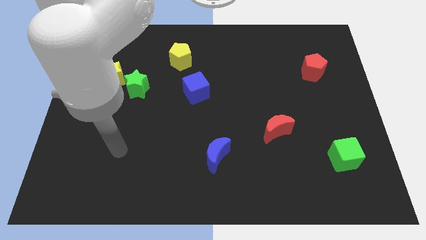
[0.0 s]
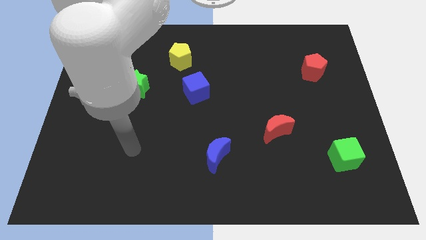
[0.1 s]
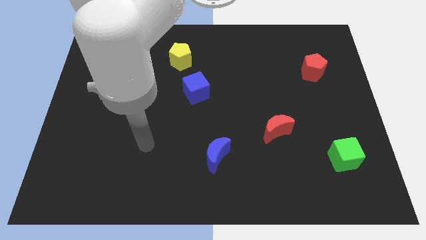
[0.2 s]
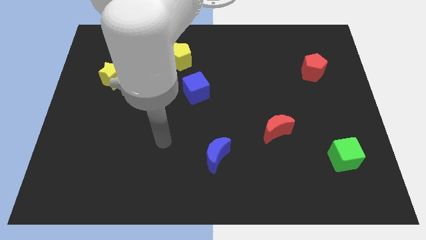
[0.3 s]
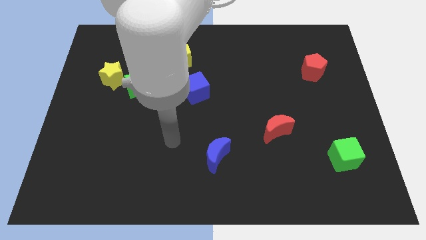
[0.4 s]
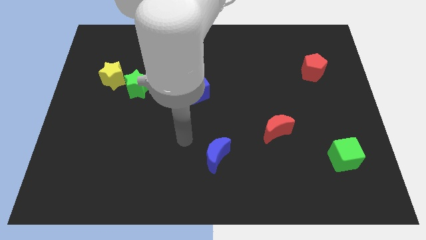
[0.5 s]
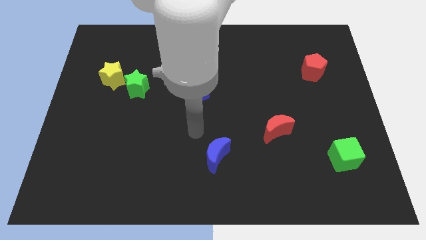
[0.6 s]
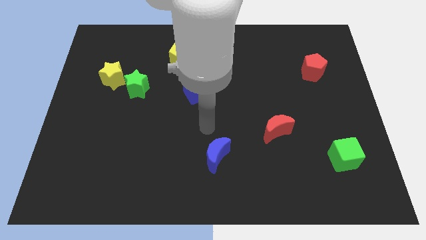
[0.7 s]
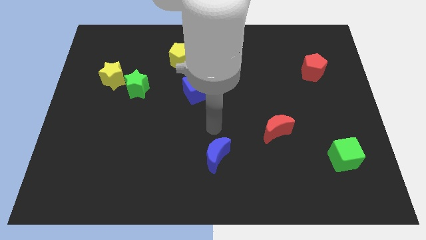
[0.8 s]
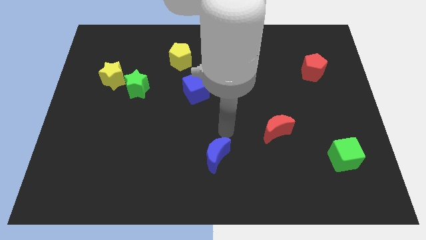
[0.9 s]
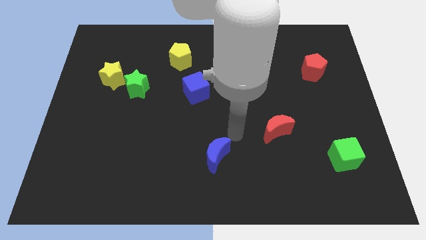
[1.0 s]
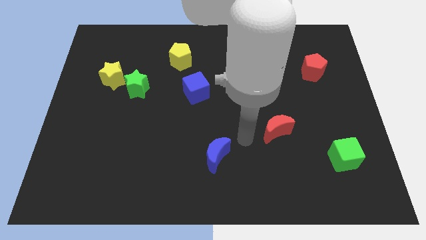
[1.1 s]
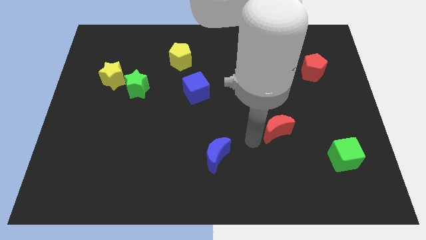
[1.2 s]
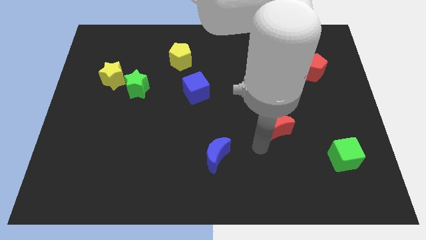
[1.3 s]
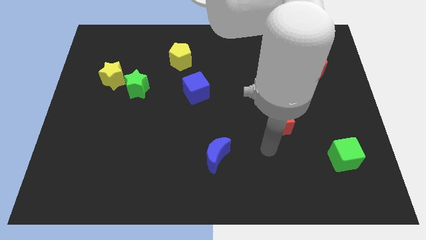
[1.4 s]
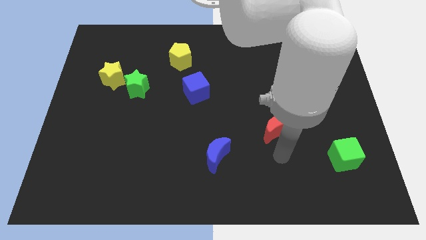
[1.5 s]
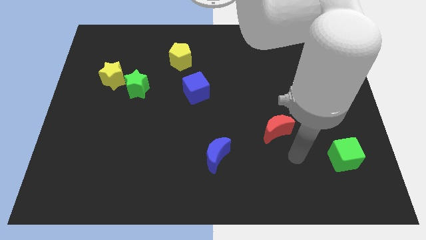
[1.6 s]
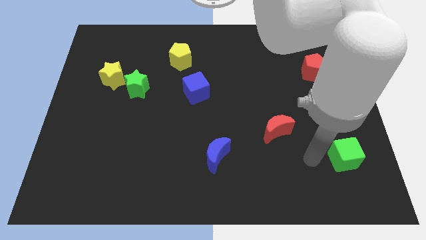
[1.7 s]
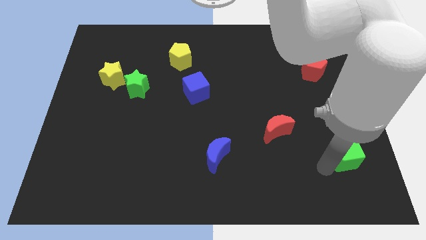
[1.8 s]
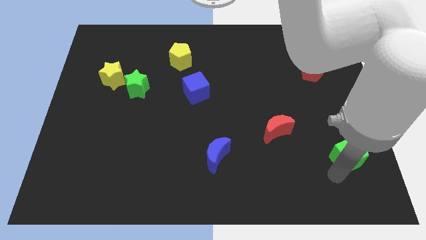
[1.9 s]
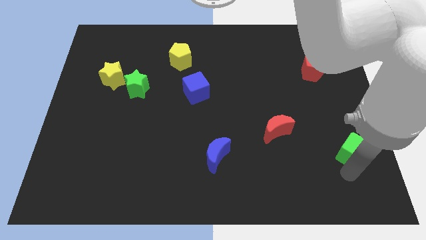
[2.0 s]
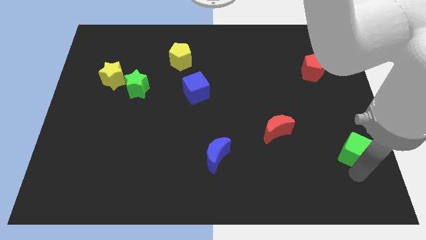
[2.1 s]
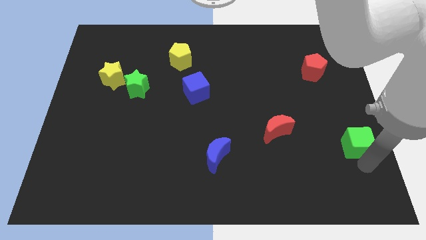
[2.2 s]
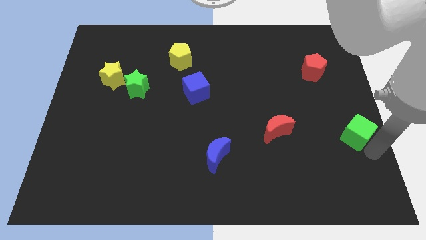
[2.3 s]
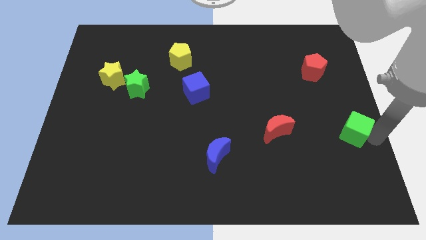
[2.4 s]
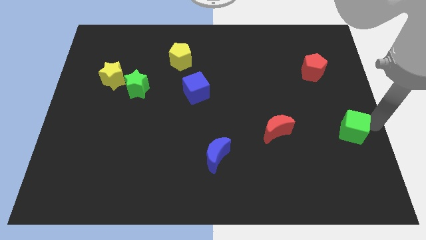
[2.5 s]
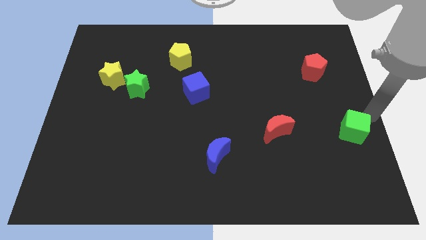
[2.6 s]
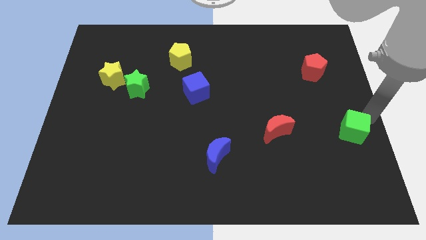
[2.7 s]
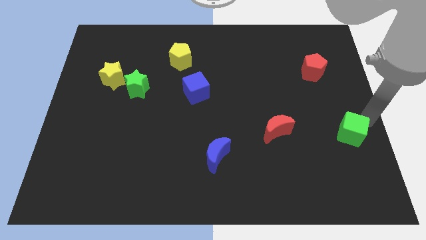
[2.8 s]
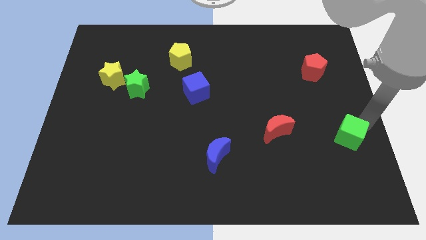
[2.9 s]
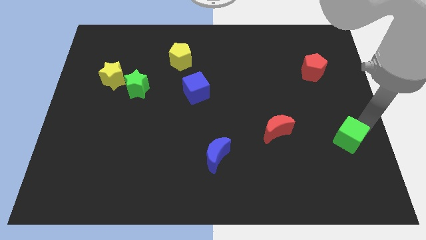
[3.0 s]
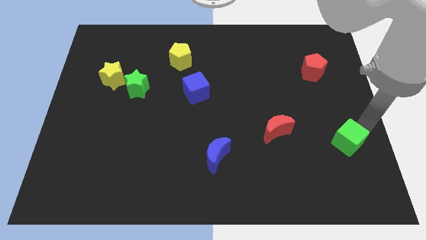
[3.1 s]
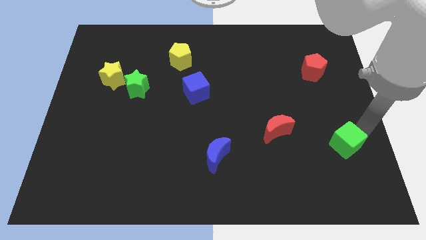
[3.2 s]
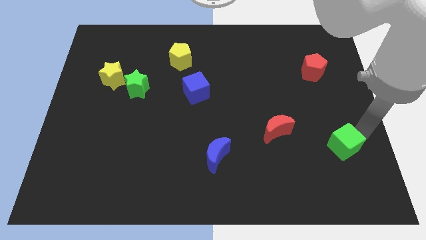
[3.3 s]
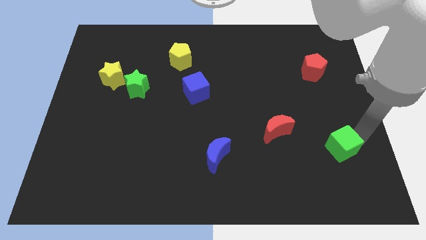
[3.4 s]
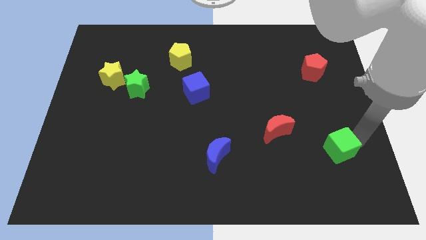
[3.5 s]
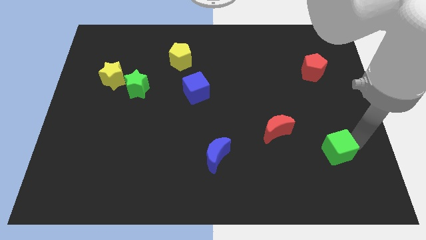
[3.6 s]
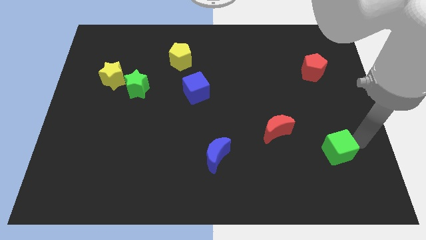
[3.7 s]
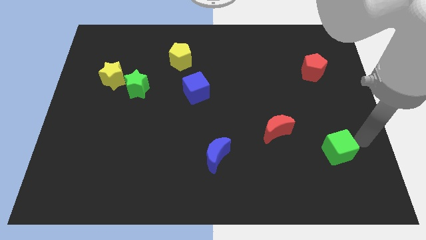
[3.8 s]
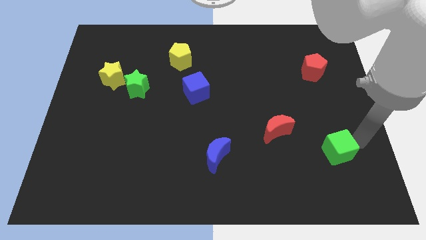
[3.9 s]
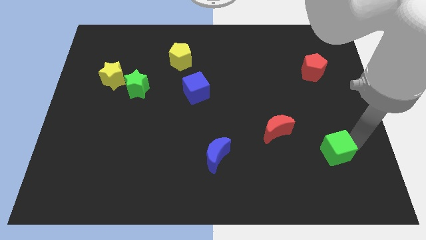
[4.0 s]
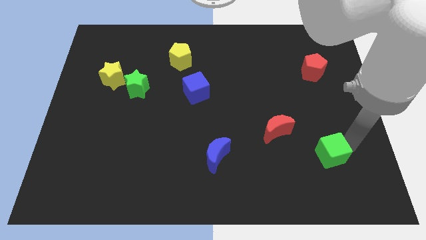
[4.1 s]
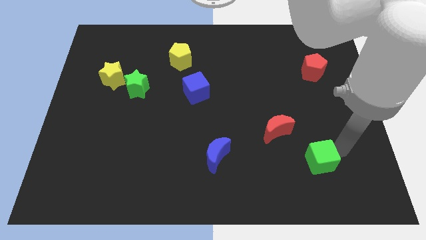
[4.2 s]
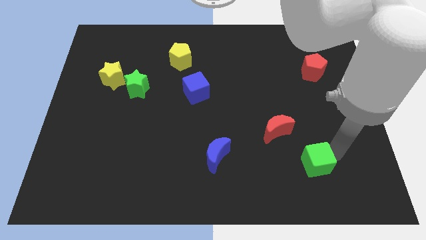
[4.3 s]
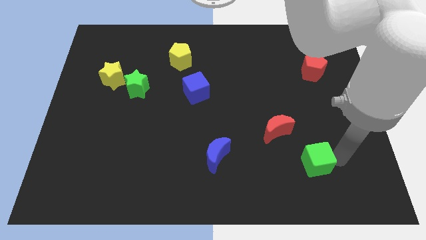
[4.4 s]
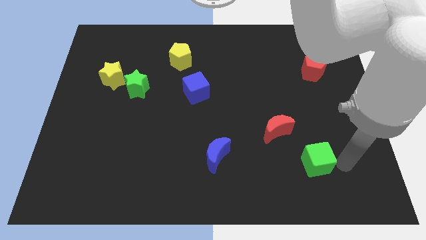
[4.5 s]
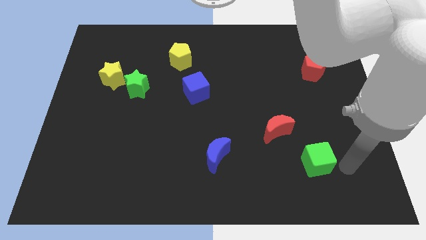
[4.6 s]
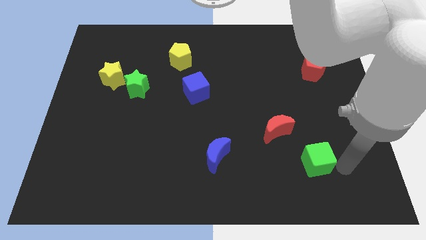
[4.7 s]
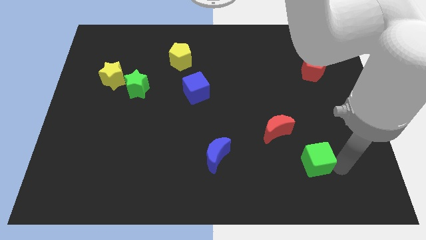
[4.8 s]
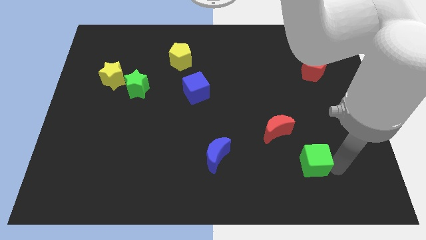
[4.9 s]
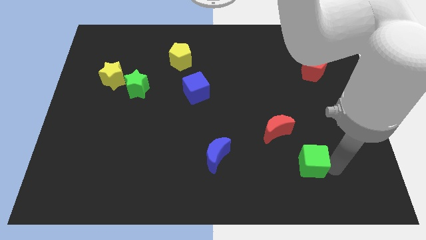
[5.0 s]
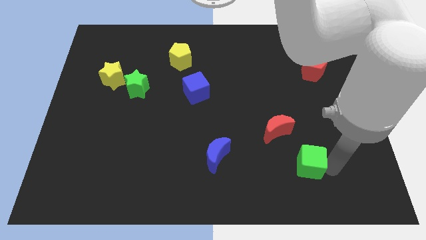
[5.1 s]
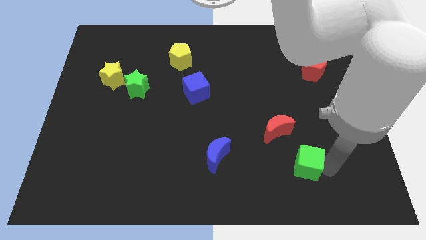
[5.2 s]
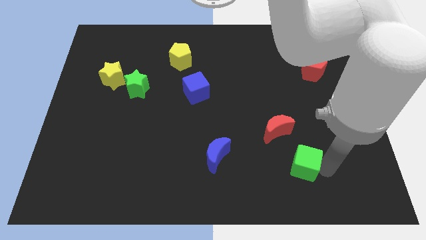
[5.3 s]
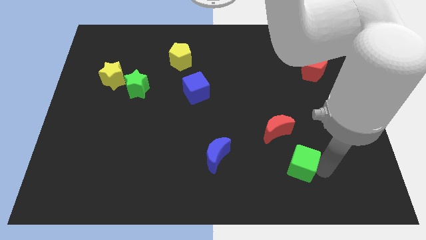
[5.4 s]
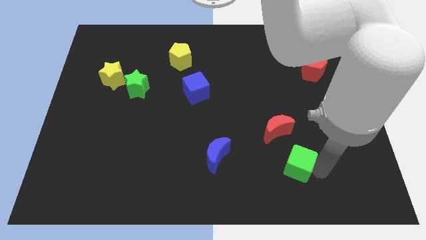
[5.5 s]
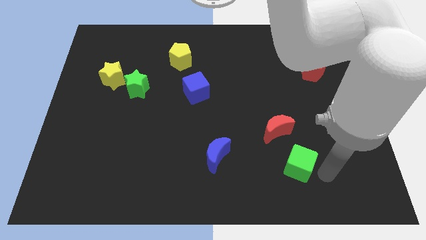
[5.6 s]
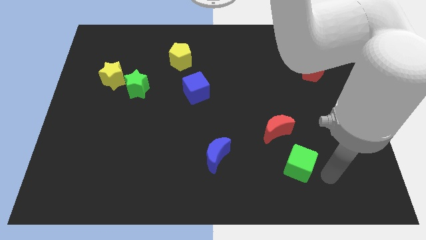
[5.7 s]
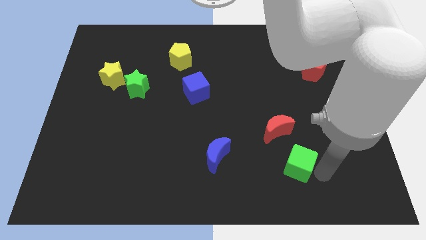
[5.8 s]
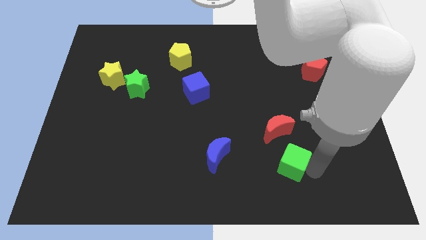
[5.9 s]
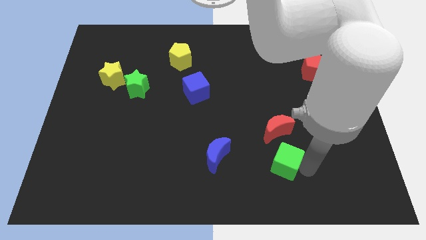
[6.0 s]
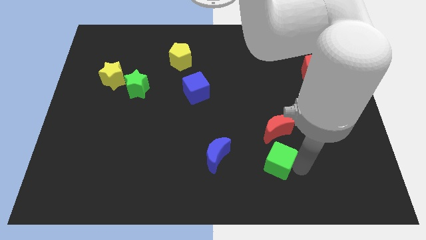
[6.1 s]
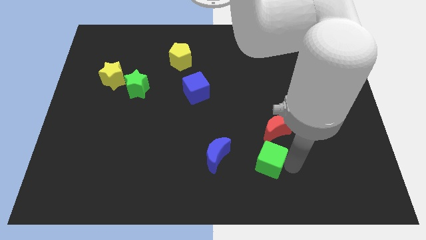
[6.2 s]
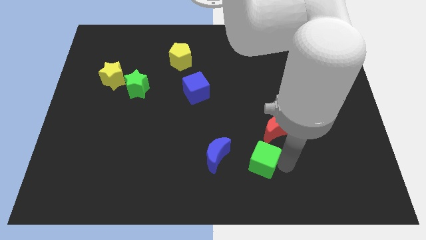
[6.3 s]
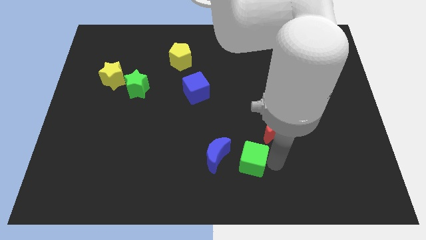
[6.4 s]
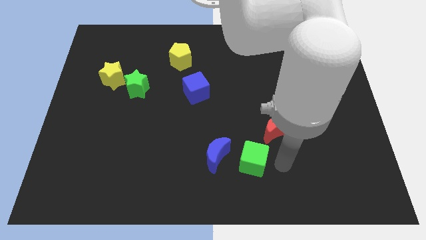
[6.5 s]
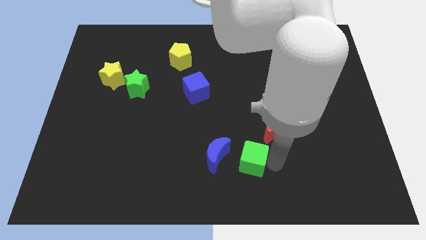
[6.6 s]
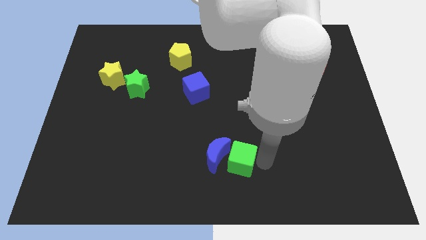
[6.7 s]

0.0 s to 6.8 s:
push the green cube to the blue moon
